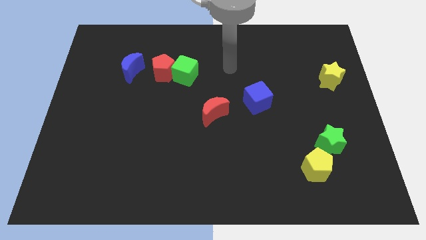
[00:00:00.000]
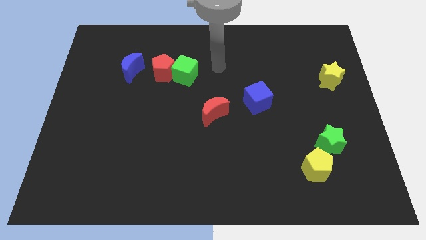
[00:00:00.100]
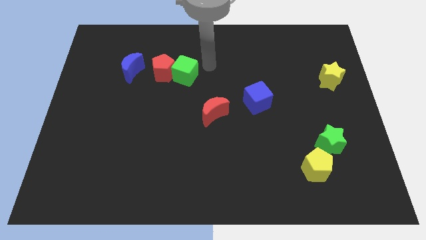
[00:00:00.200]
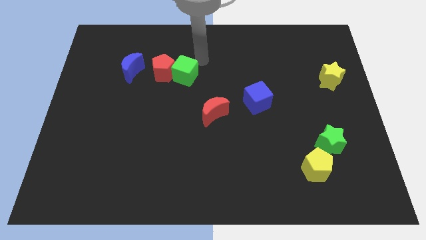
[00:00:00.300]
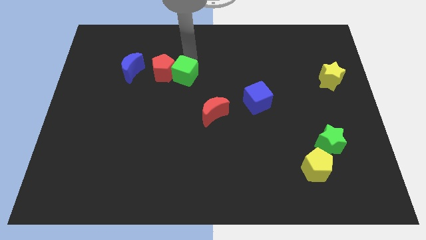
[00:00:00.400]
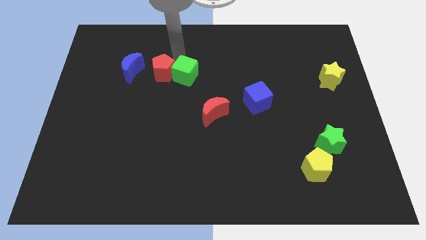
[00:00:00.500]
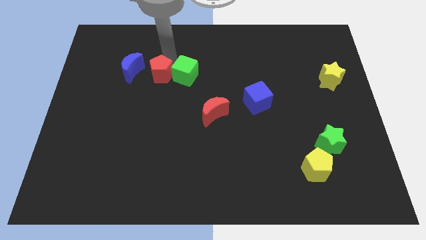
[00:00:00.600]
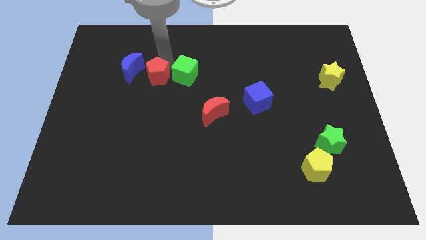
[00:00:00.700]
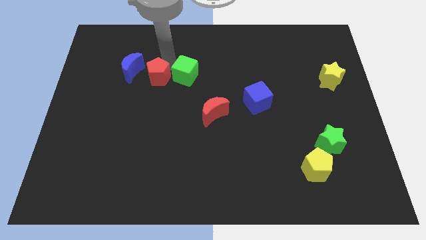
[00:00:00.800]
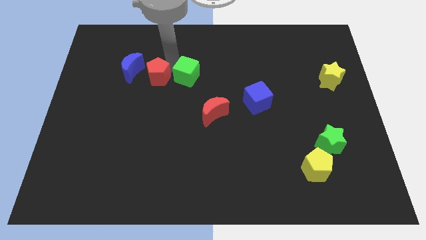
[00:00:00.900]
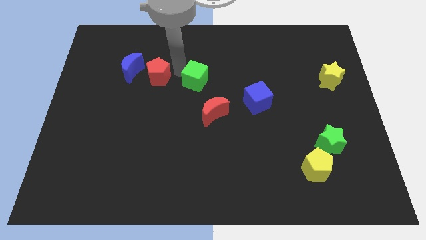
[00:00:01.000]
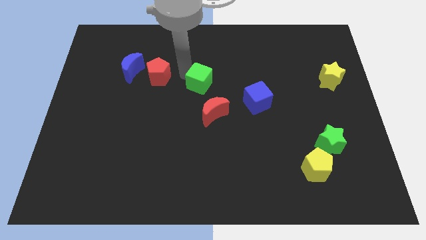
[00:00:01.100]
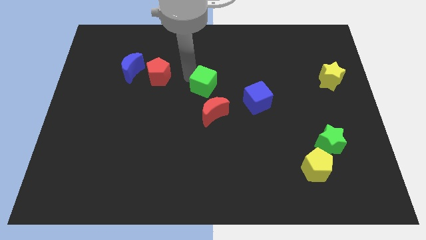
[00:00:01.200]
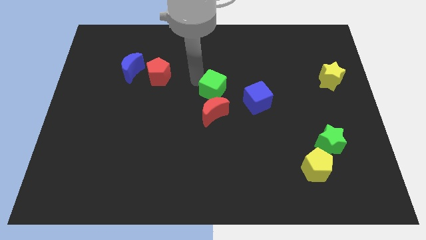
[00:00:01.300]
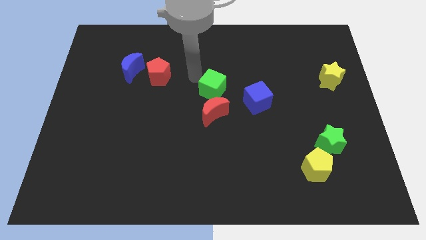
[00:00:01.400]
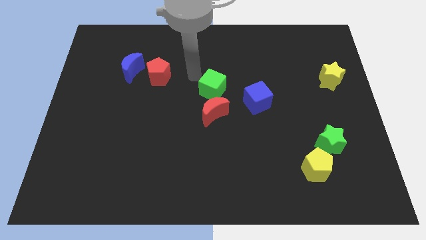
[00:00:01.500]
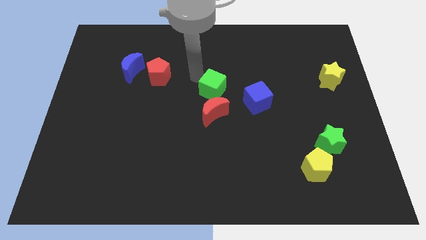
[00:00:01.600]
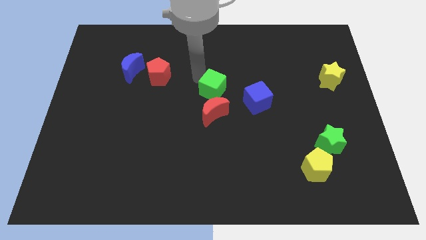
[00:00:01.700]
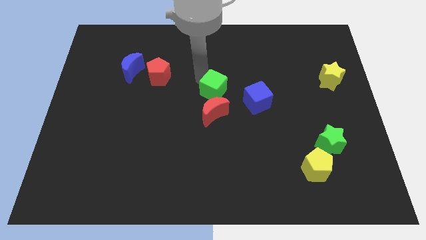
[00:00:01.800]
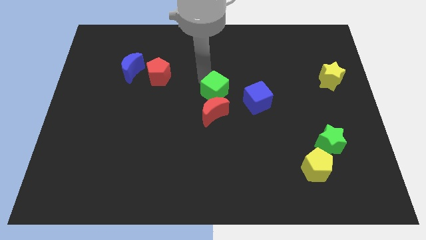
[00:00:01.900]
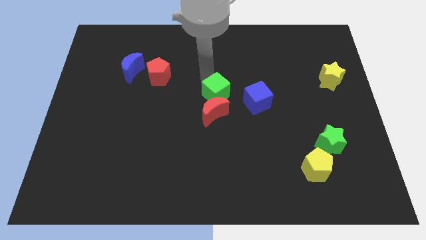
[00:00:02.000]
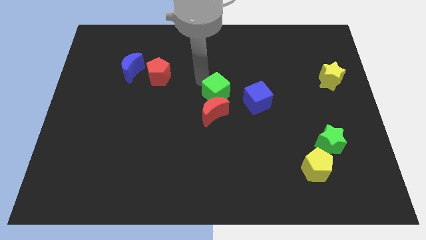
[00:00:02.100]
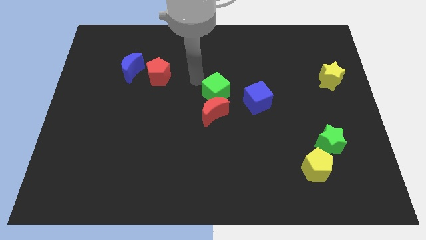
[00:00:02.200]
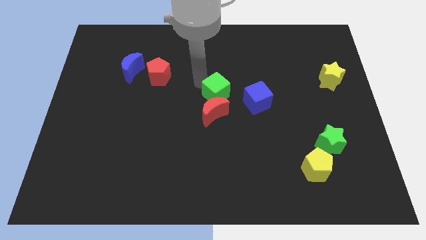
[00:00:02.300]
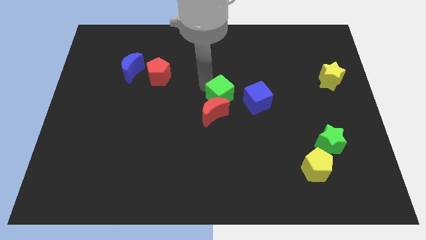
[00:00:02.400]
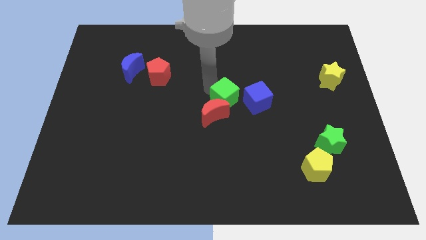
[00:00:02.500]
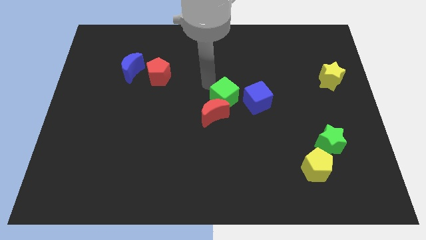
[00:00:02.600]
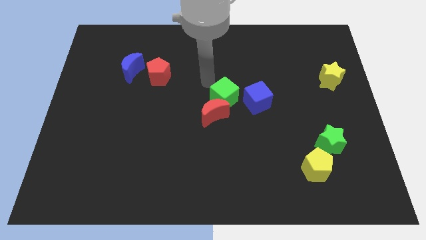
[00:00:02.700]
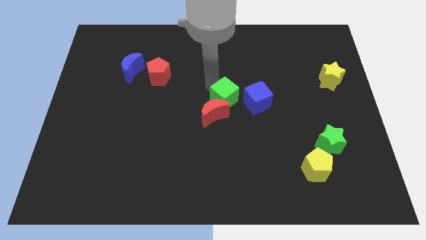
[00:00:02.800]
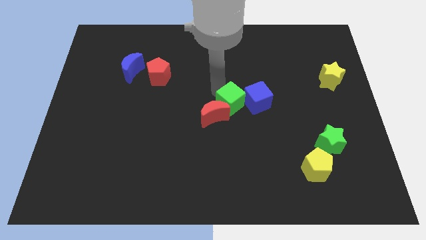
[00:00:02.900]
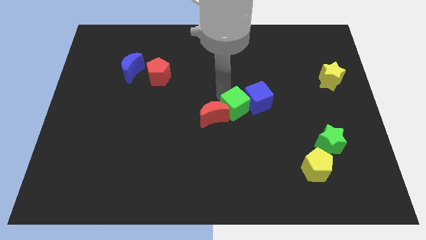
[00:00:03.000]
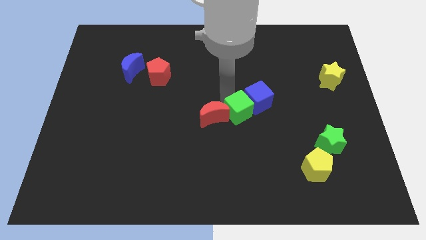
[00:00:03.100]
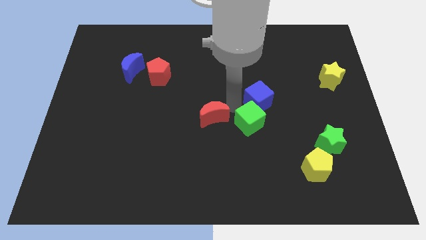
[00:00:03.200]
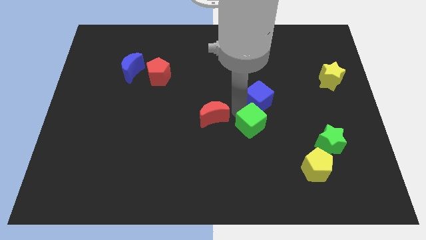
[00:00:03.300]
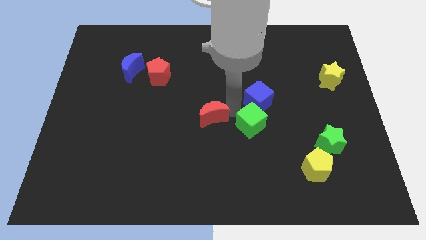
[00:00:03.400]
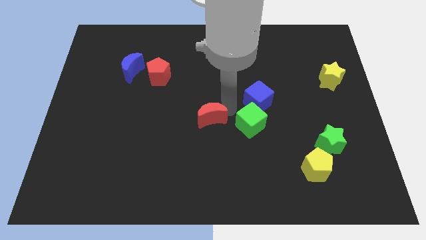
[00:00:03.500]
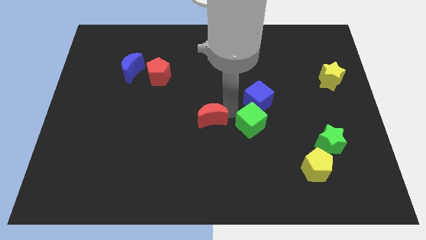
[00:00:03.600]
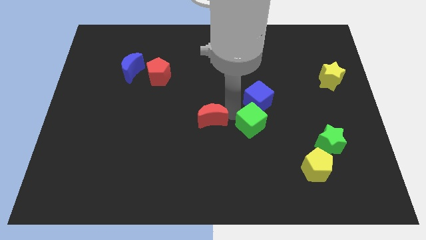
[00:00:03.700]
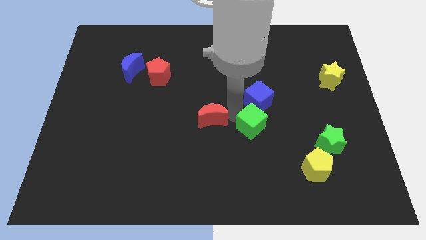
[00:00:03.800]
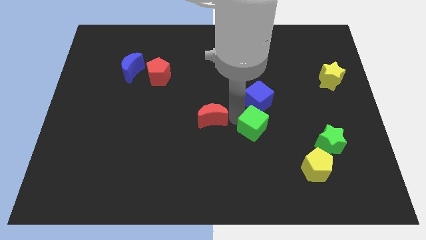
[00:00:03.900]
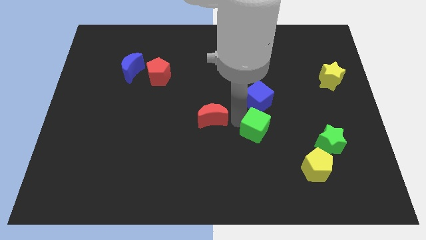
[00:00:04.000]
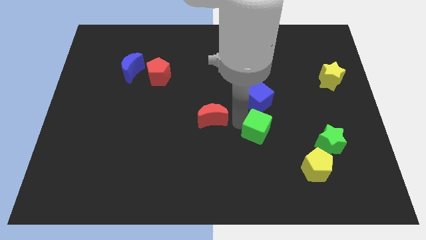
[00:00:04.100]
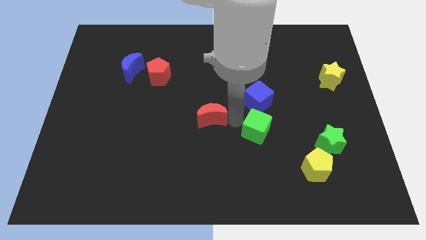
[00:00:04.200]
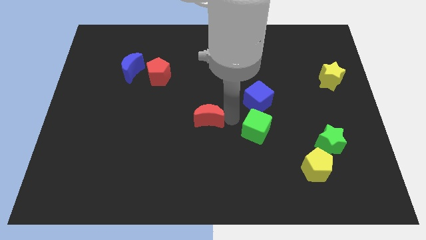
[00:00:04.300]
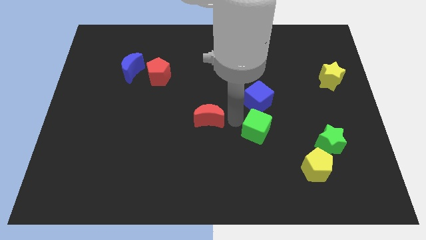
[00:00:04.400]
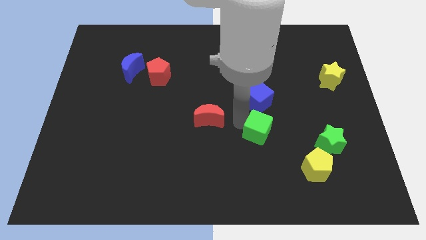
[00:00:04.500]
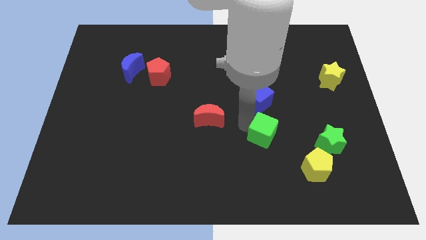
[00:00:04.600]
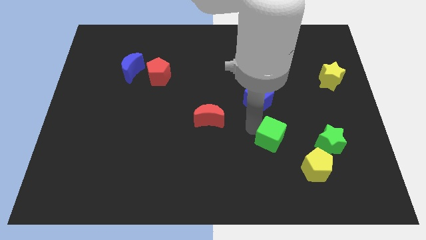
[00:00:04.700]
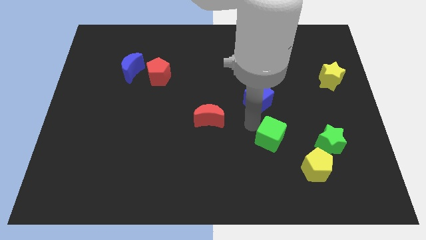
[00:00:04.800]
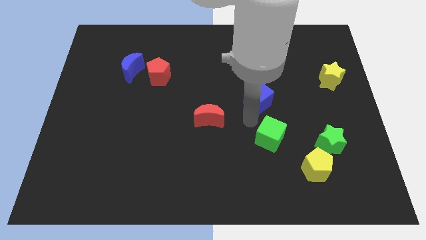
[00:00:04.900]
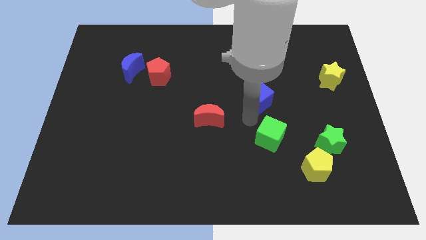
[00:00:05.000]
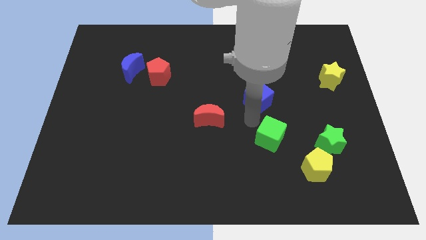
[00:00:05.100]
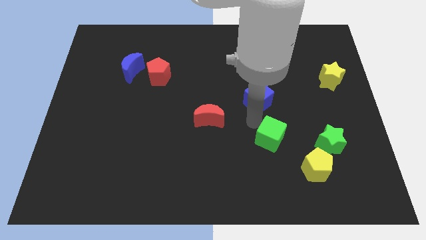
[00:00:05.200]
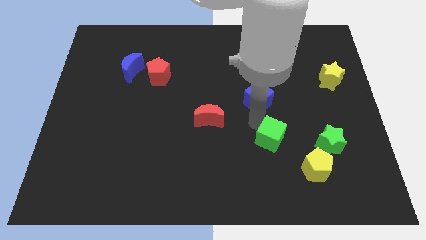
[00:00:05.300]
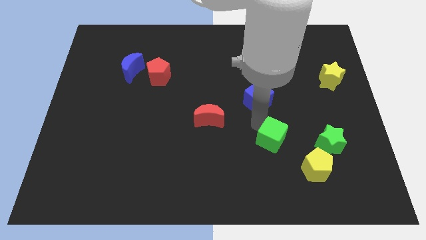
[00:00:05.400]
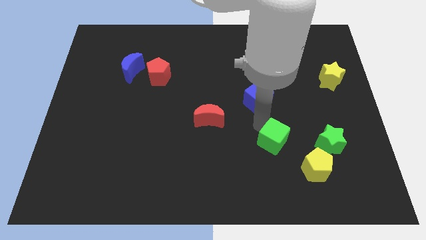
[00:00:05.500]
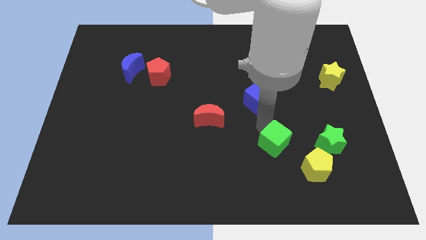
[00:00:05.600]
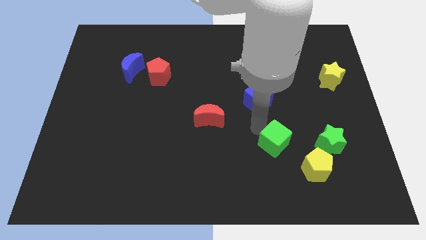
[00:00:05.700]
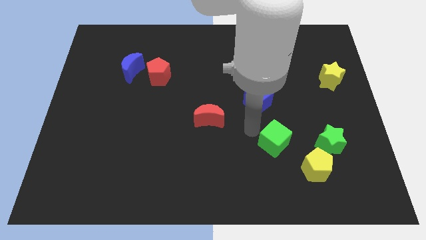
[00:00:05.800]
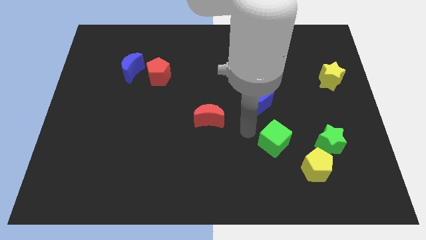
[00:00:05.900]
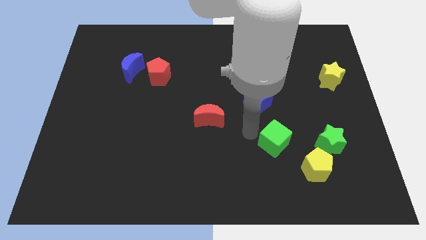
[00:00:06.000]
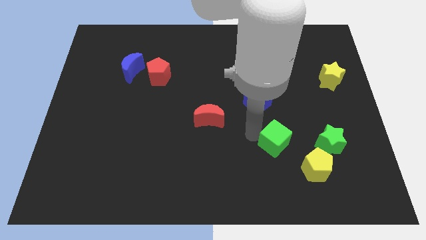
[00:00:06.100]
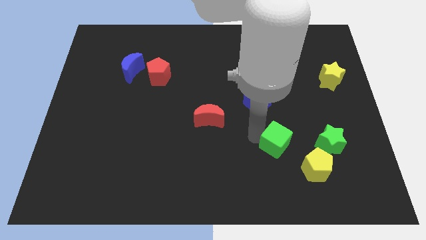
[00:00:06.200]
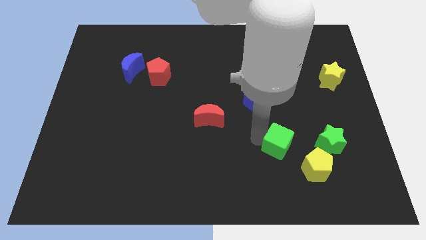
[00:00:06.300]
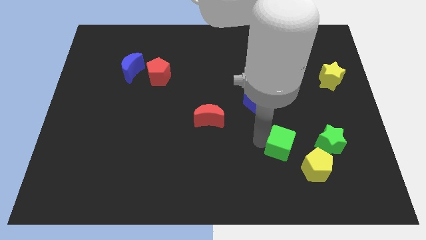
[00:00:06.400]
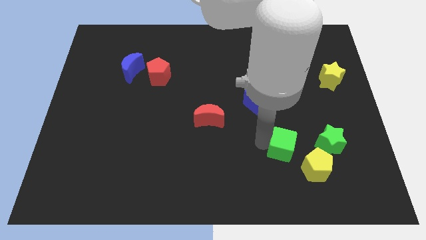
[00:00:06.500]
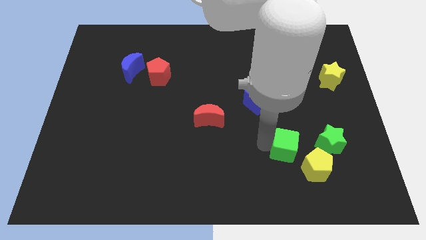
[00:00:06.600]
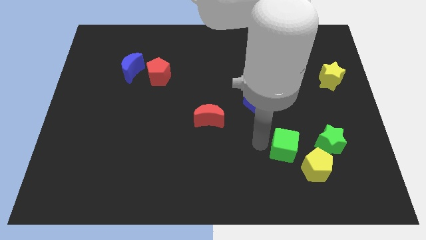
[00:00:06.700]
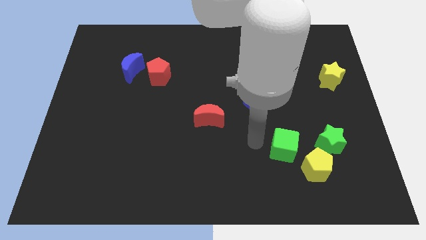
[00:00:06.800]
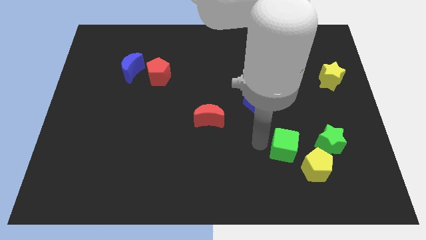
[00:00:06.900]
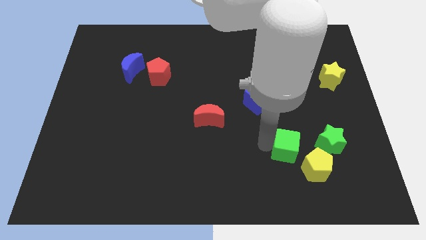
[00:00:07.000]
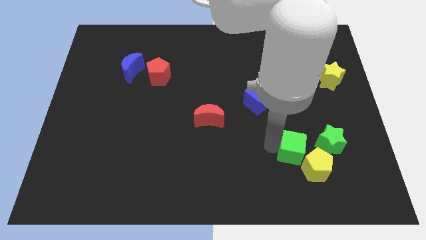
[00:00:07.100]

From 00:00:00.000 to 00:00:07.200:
move the green cube next to the yellow pentagon
